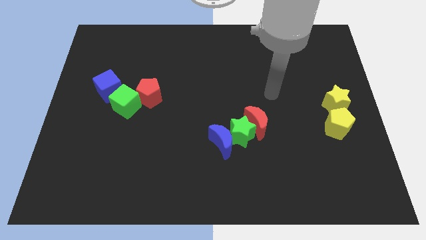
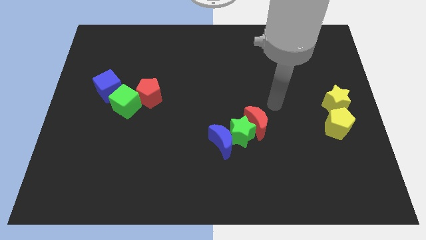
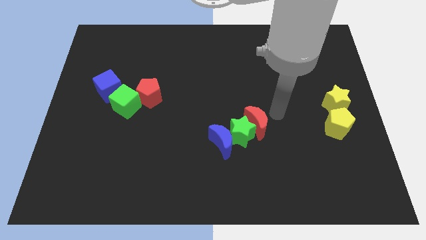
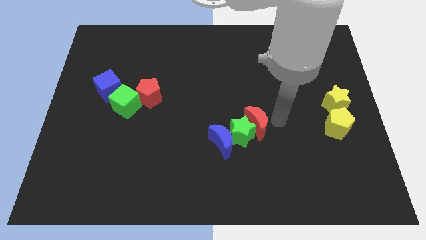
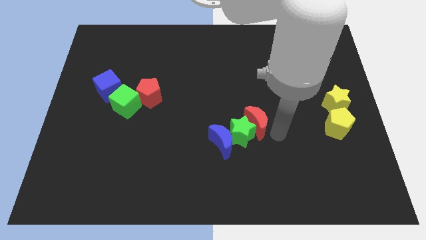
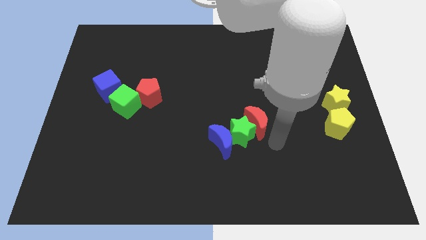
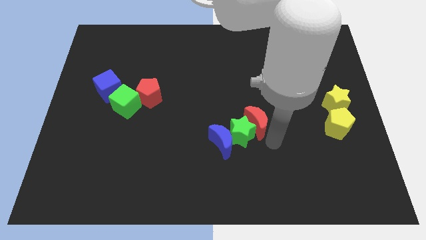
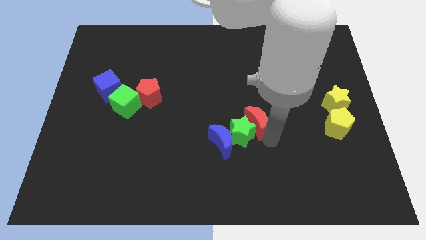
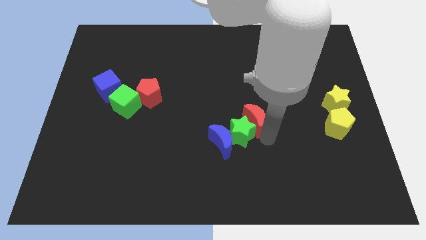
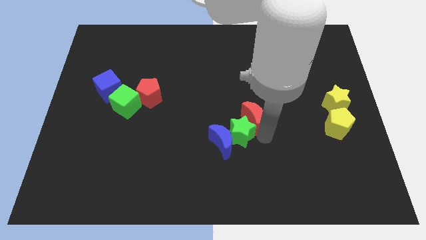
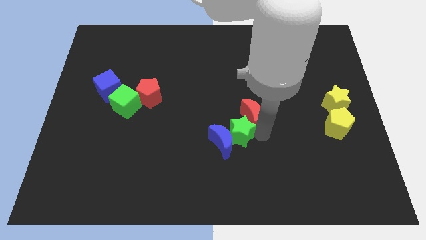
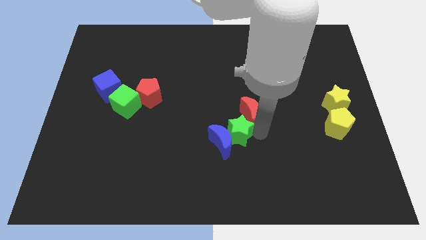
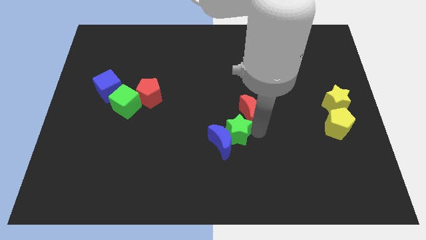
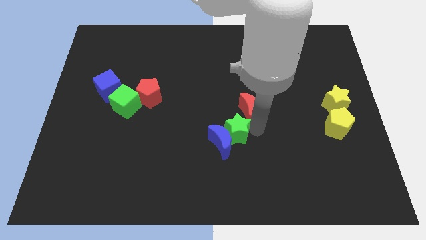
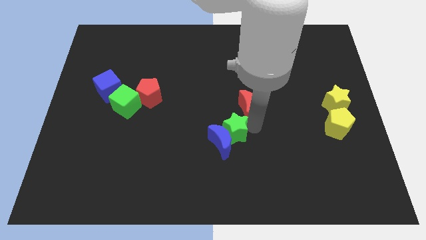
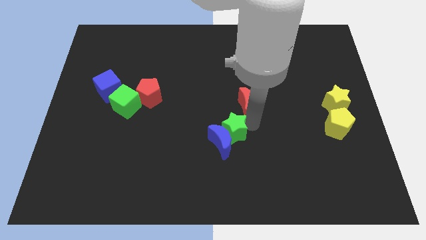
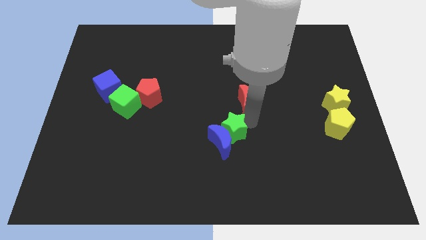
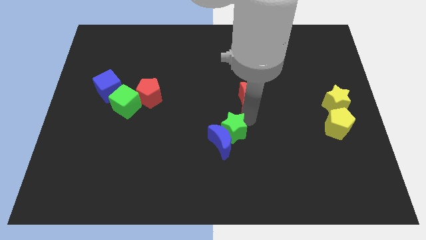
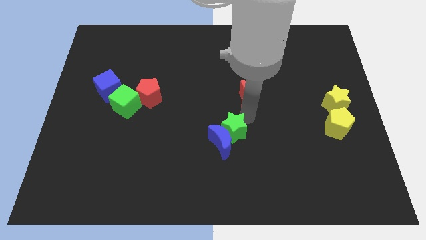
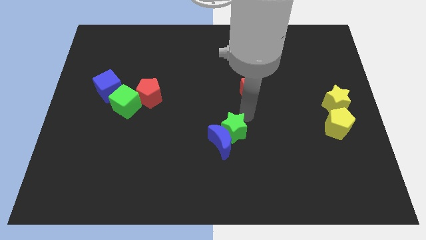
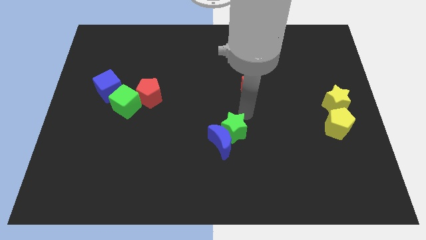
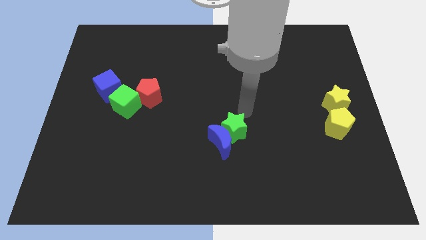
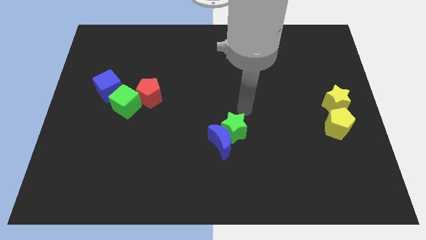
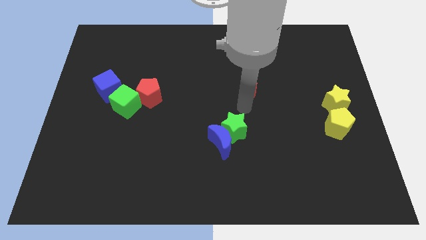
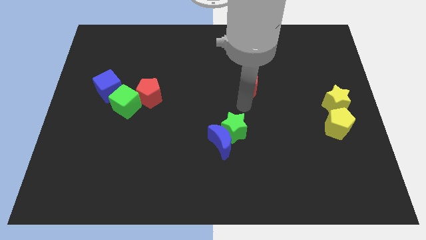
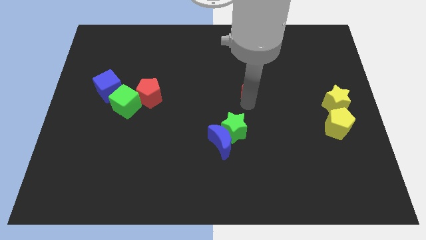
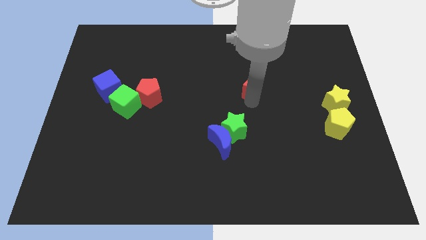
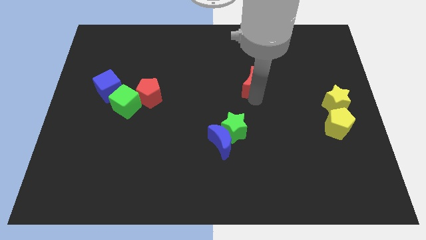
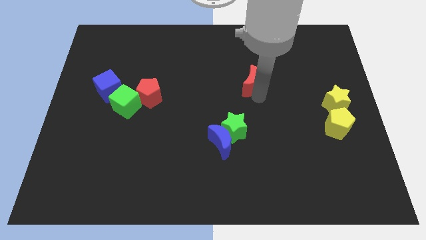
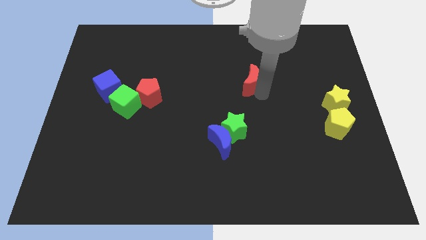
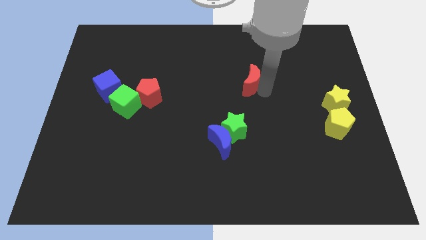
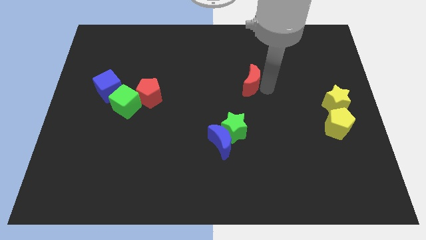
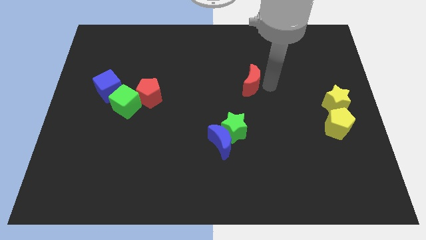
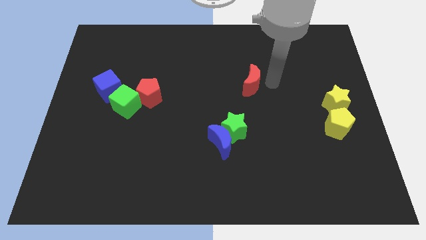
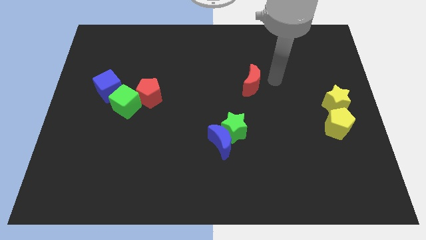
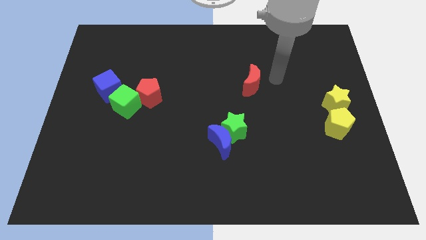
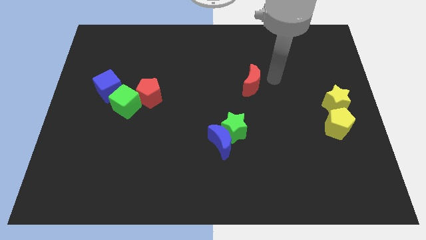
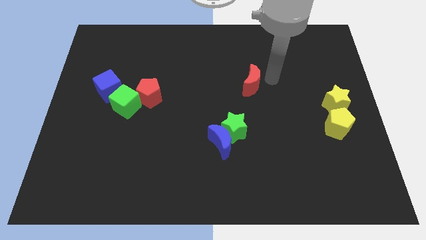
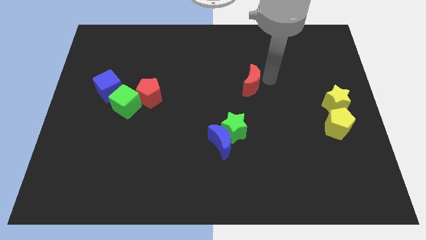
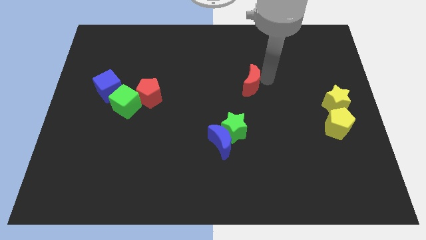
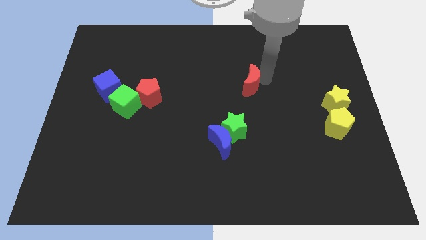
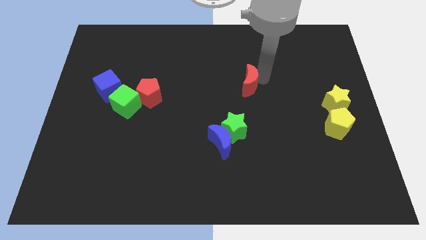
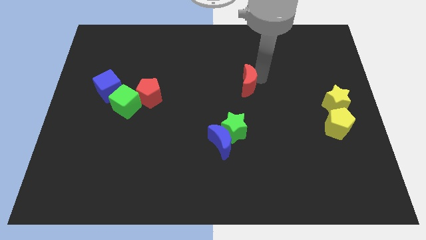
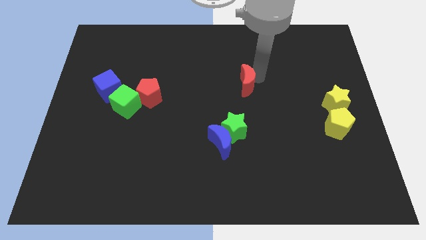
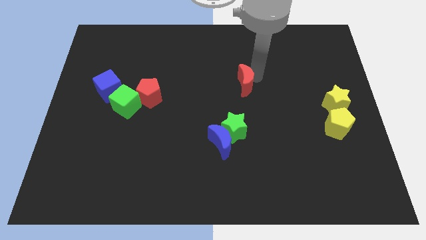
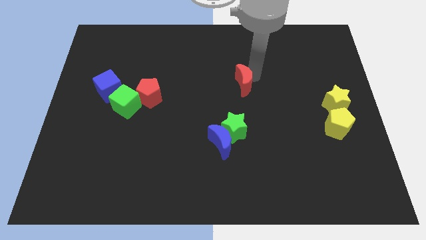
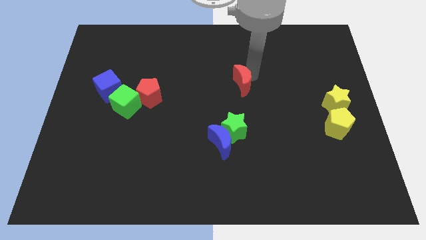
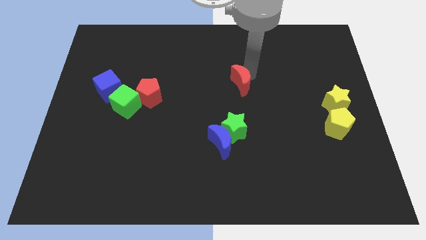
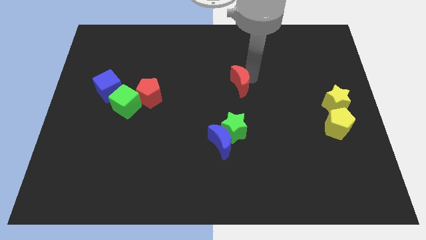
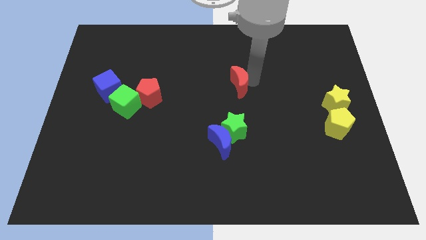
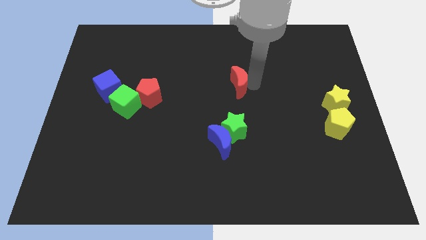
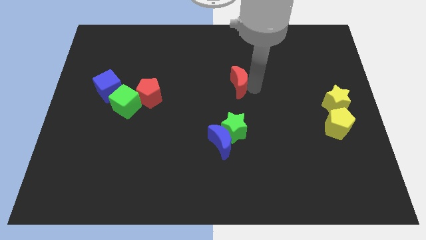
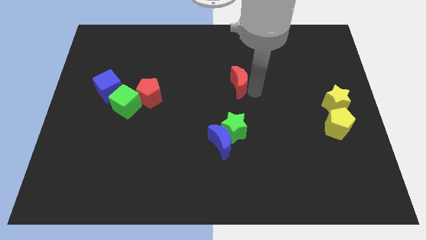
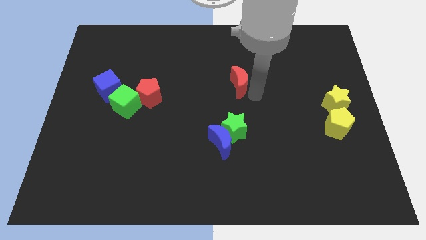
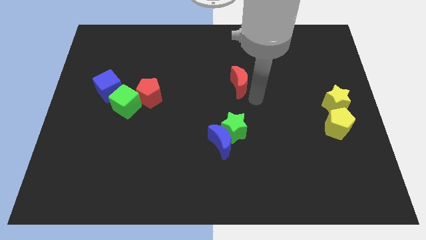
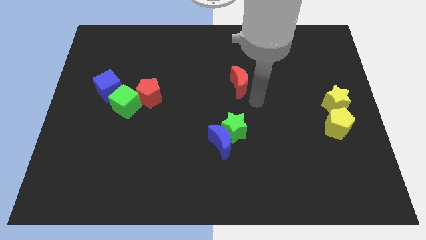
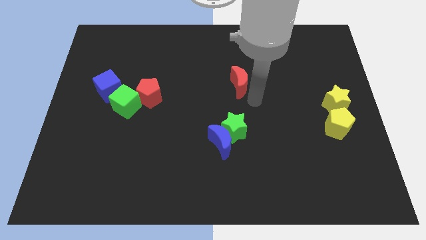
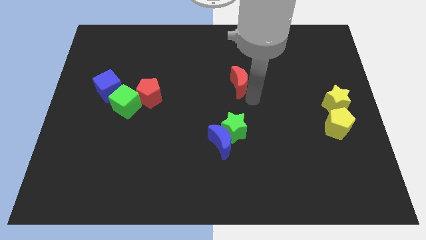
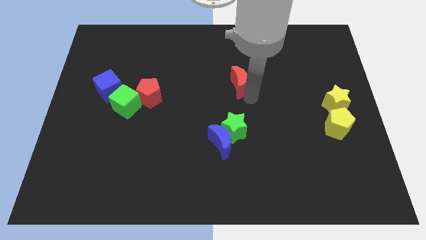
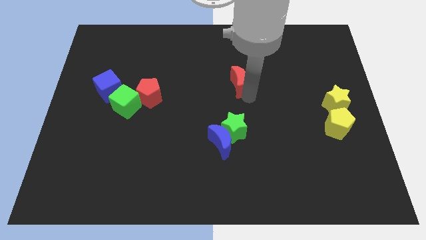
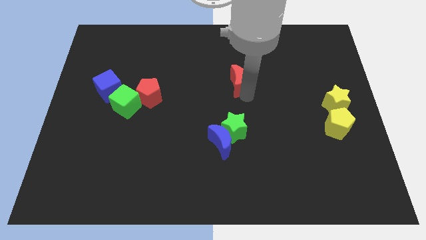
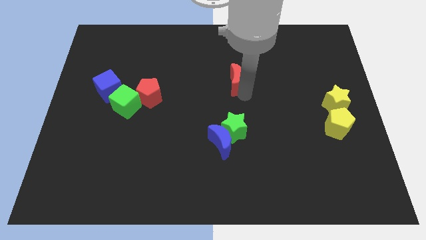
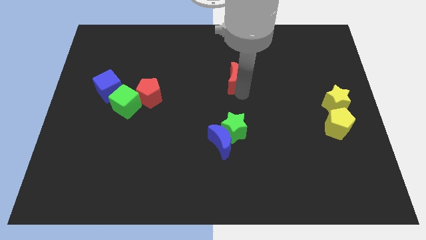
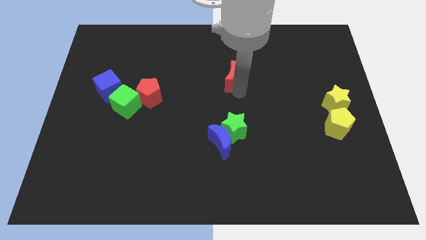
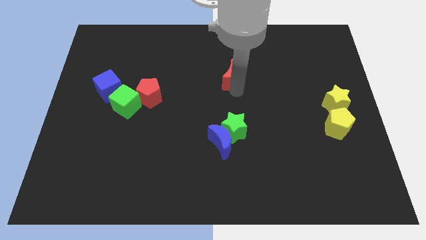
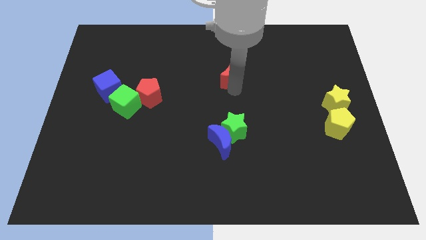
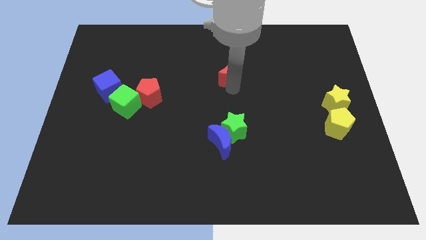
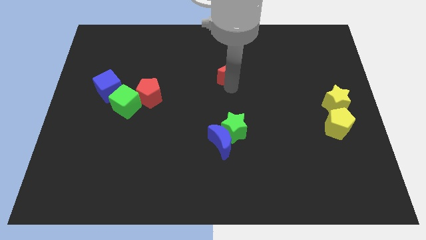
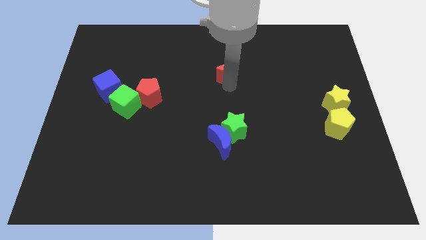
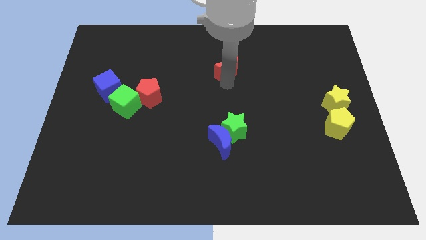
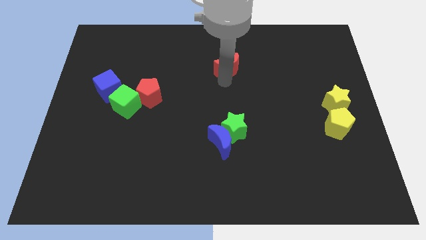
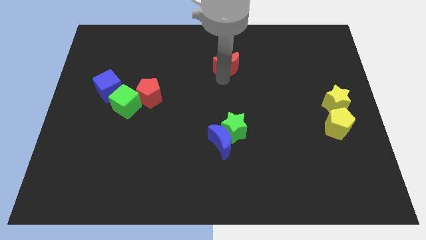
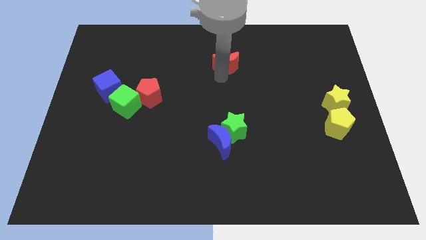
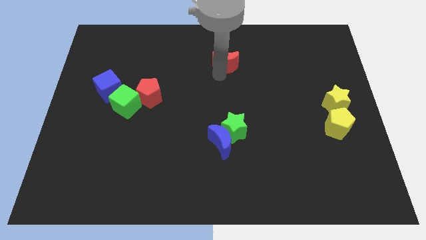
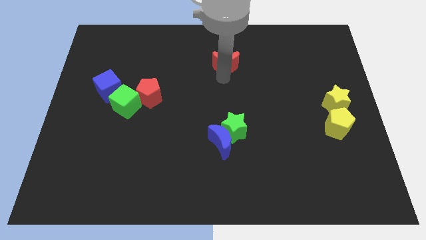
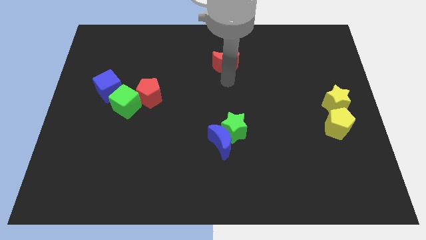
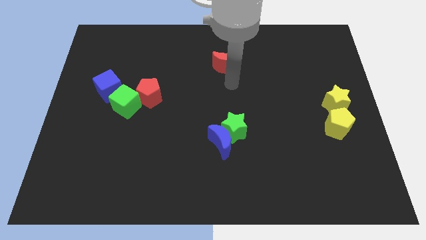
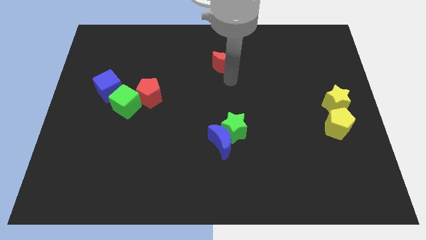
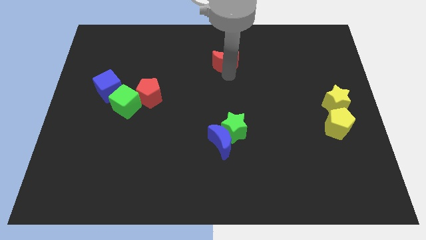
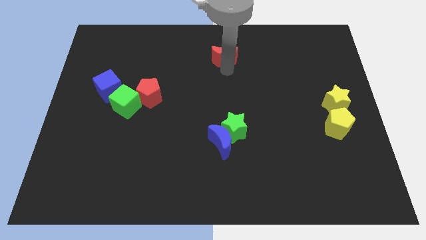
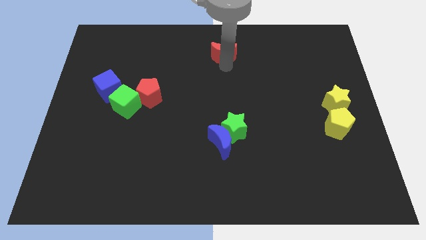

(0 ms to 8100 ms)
slide the red moon to the top
